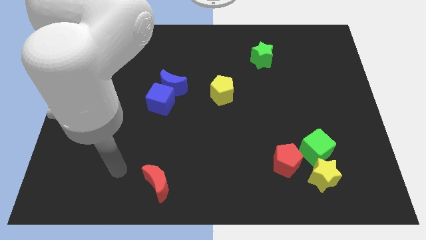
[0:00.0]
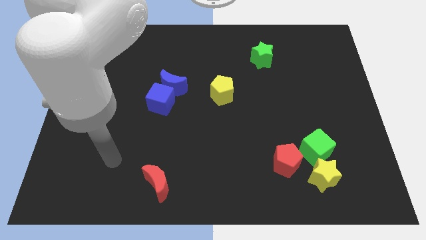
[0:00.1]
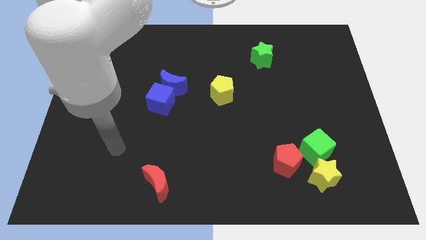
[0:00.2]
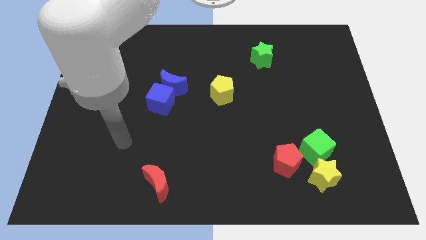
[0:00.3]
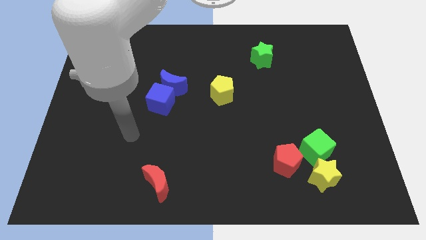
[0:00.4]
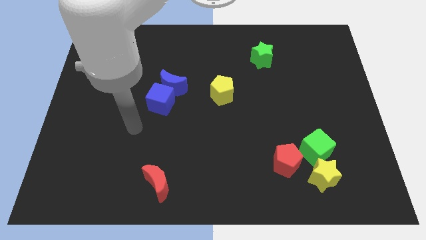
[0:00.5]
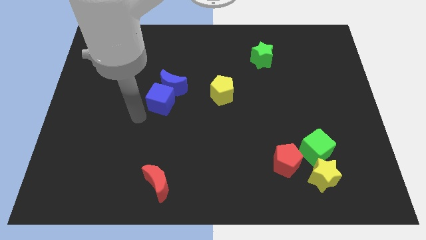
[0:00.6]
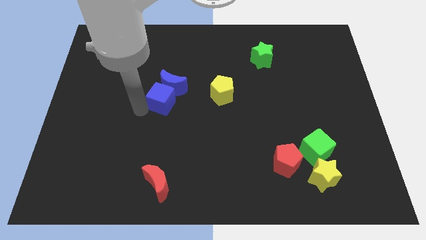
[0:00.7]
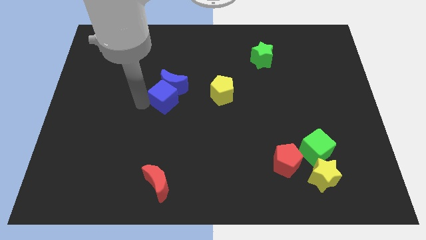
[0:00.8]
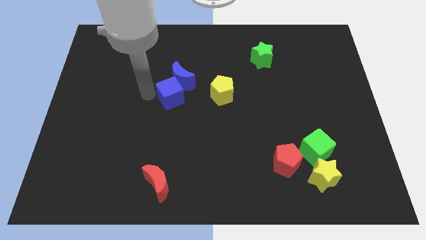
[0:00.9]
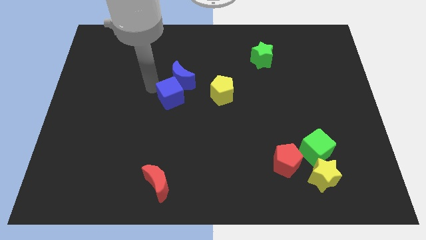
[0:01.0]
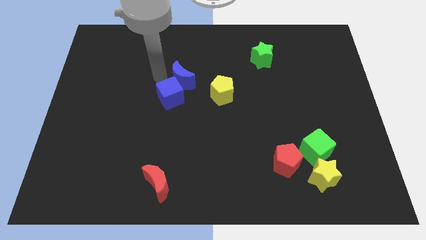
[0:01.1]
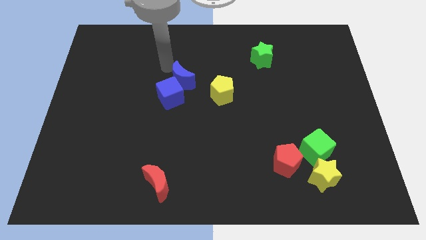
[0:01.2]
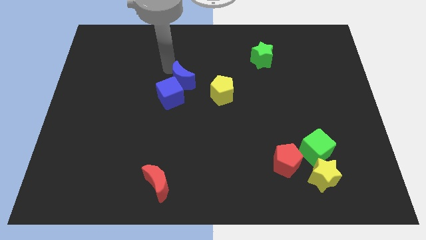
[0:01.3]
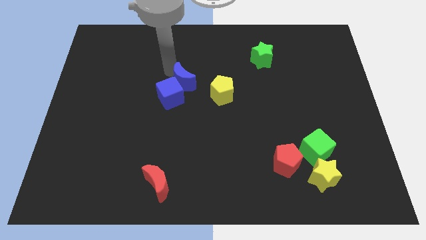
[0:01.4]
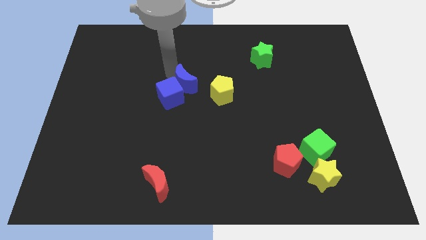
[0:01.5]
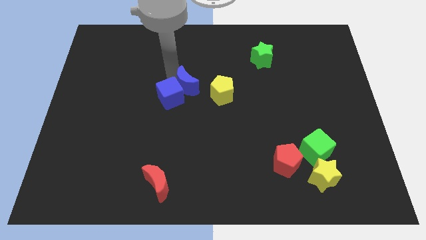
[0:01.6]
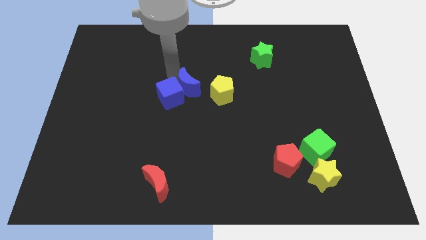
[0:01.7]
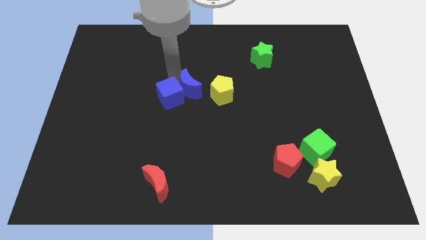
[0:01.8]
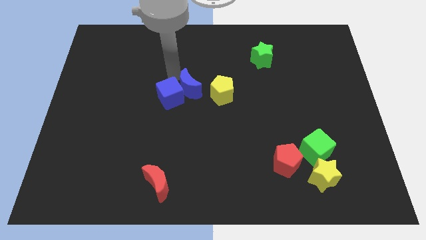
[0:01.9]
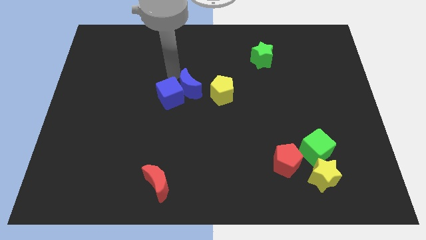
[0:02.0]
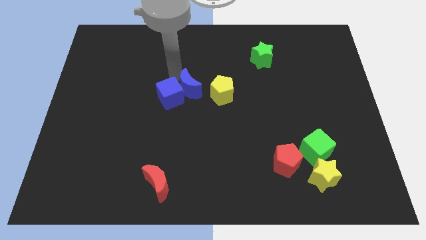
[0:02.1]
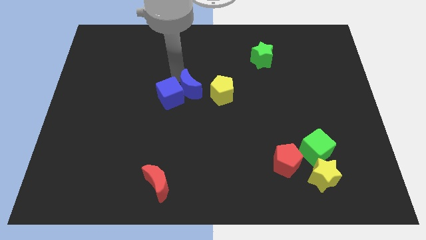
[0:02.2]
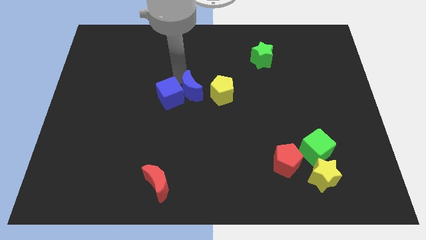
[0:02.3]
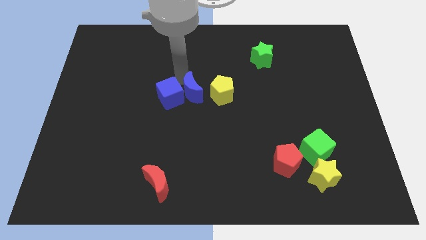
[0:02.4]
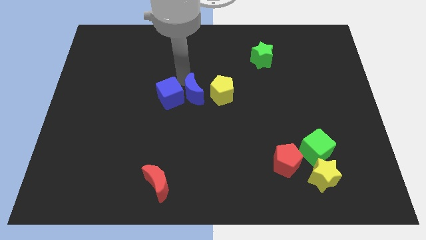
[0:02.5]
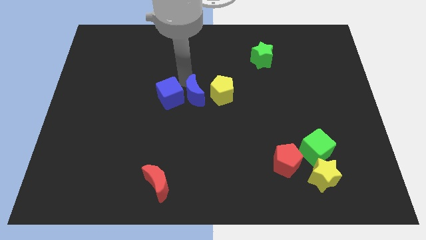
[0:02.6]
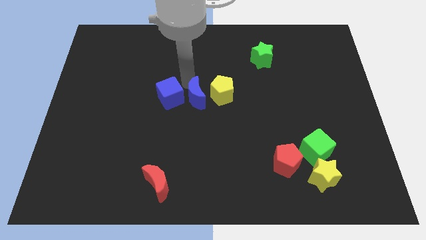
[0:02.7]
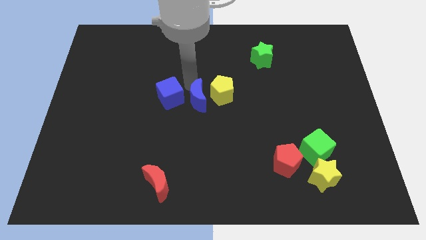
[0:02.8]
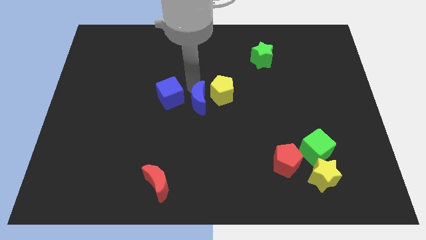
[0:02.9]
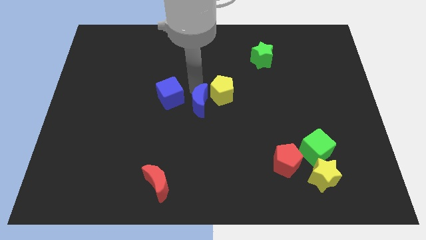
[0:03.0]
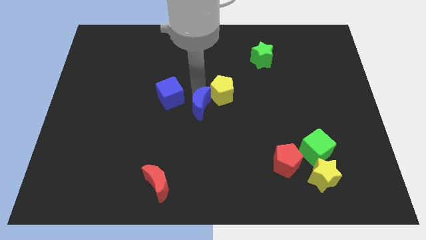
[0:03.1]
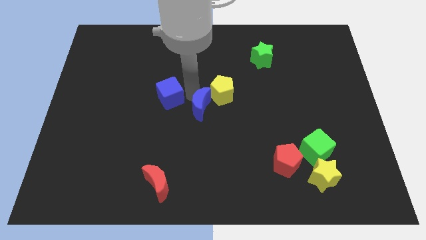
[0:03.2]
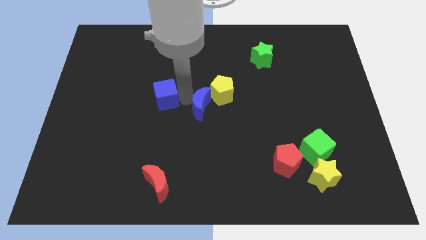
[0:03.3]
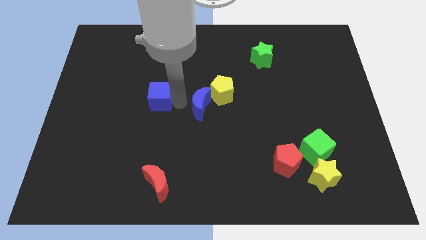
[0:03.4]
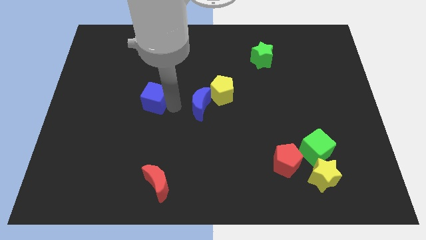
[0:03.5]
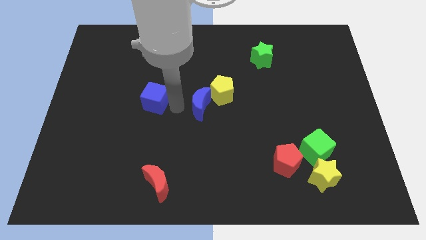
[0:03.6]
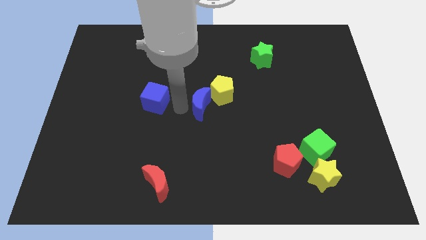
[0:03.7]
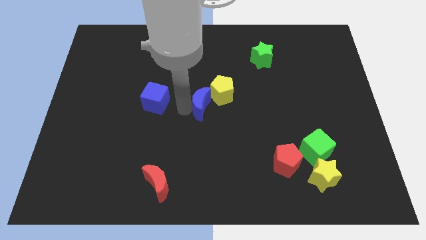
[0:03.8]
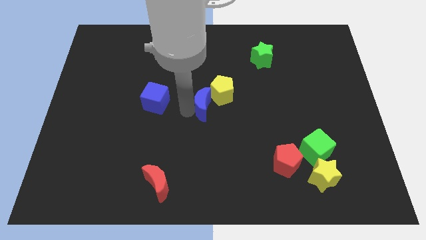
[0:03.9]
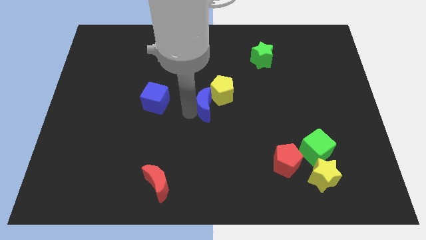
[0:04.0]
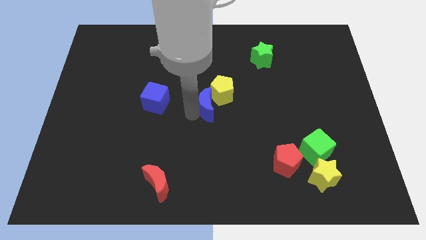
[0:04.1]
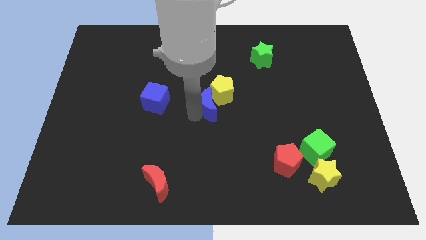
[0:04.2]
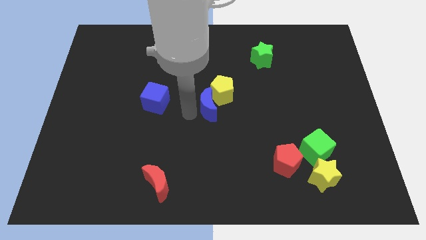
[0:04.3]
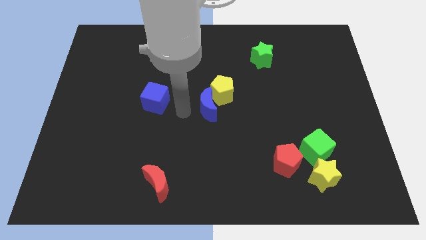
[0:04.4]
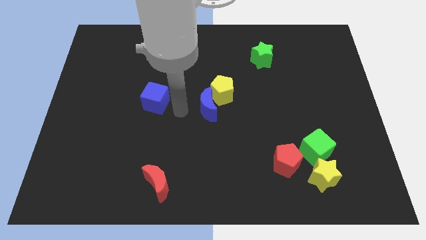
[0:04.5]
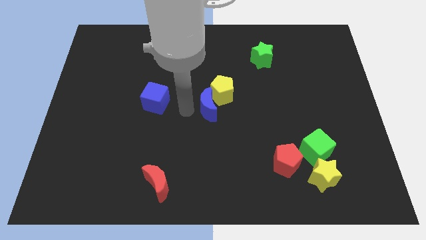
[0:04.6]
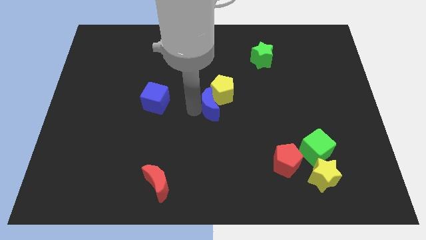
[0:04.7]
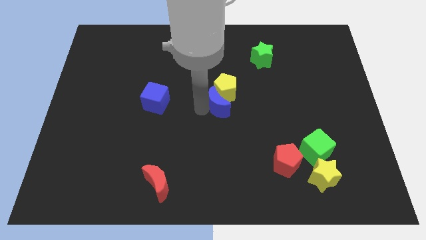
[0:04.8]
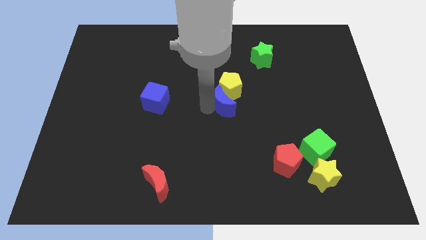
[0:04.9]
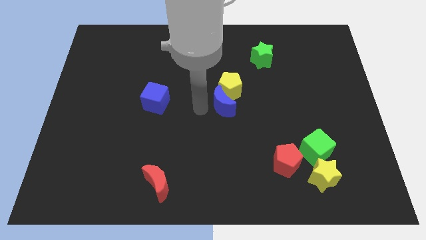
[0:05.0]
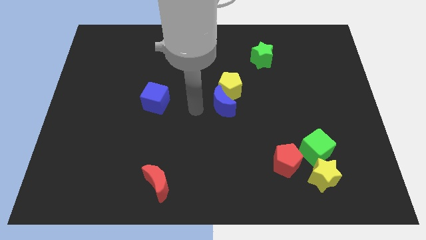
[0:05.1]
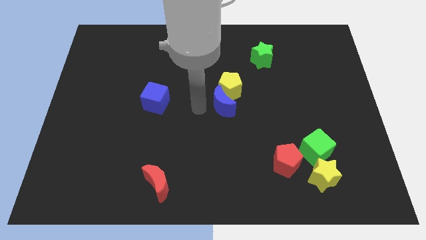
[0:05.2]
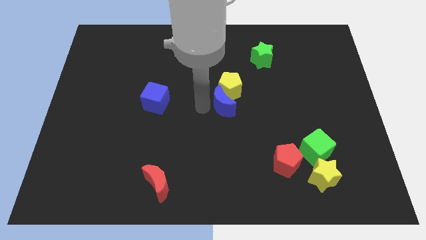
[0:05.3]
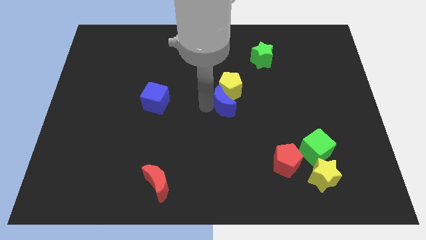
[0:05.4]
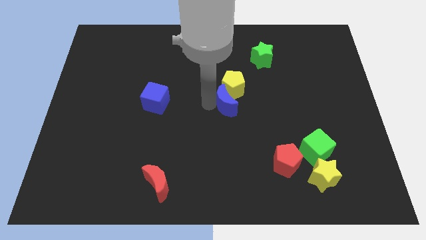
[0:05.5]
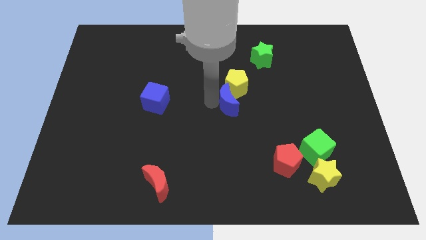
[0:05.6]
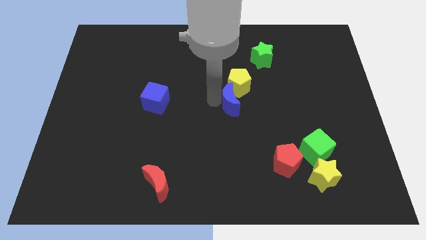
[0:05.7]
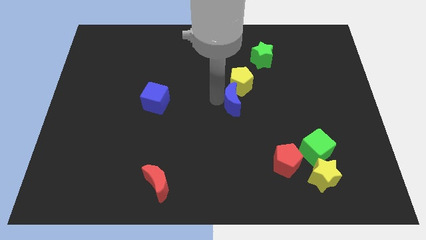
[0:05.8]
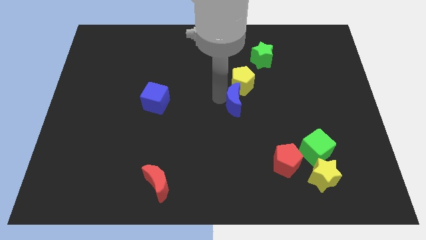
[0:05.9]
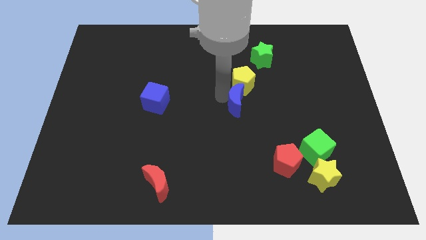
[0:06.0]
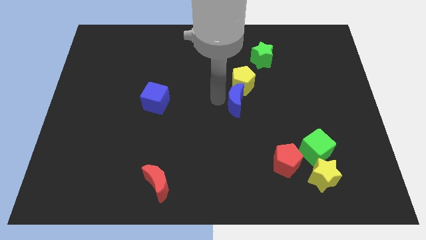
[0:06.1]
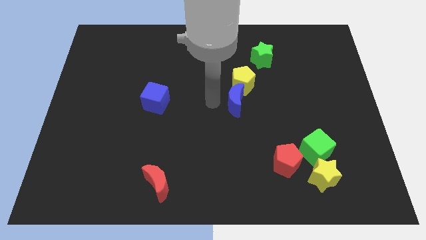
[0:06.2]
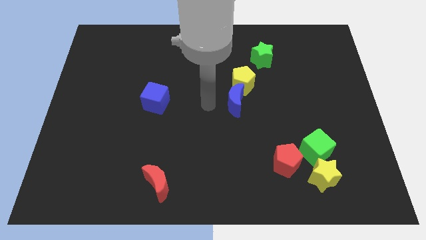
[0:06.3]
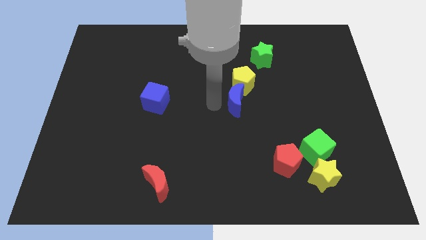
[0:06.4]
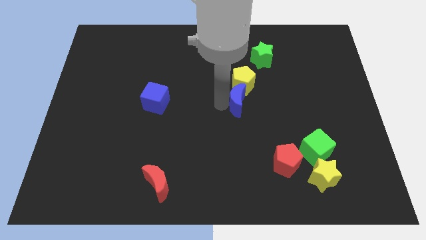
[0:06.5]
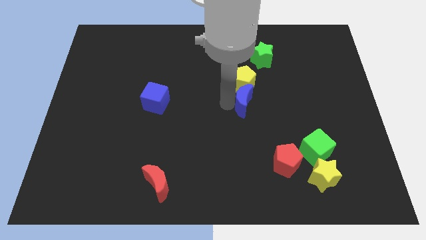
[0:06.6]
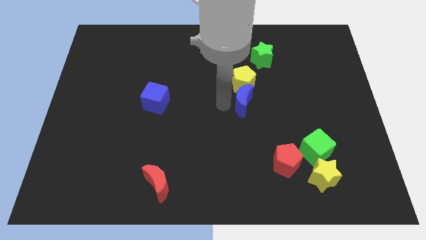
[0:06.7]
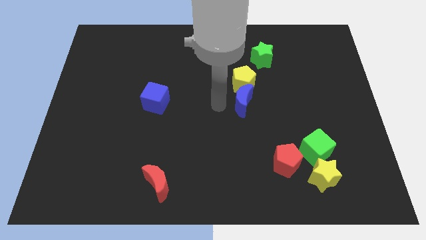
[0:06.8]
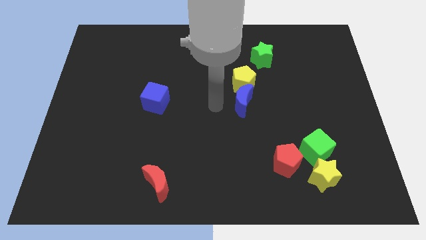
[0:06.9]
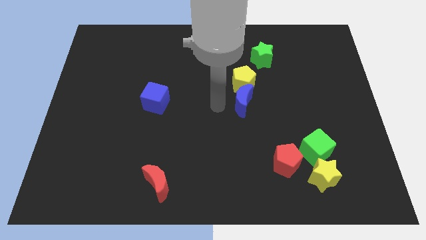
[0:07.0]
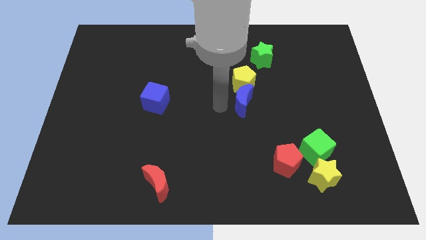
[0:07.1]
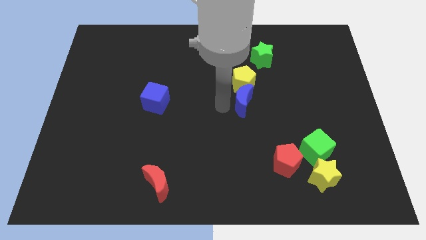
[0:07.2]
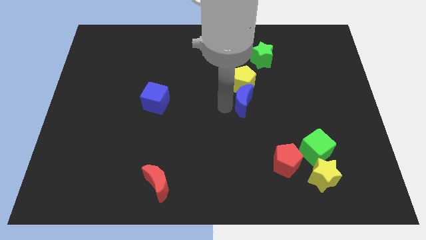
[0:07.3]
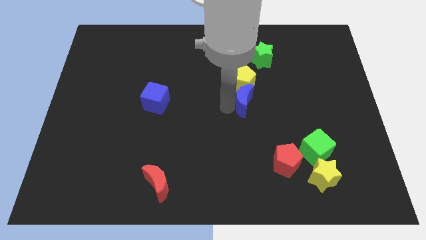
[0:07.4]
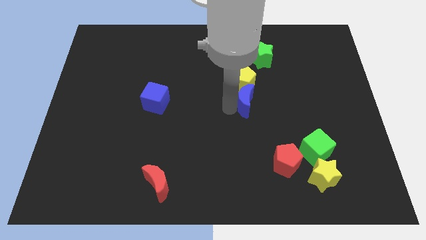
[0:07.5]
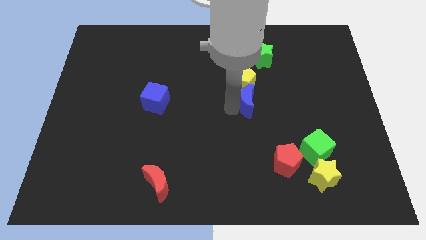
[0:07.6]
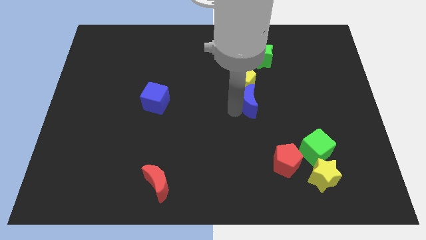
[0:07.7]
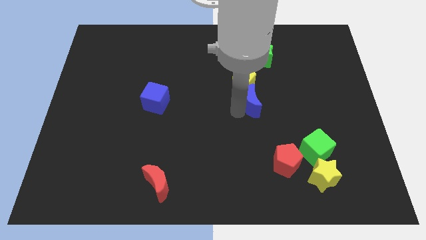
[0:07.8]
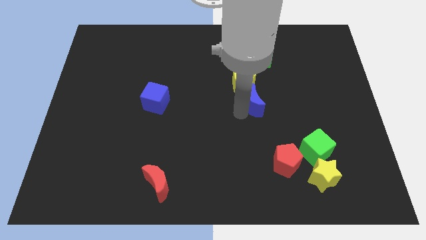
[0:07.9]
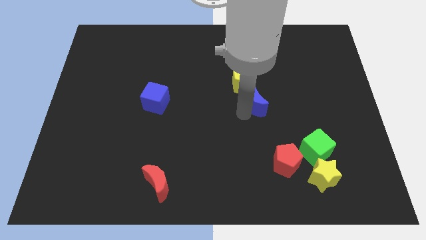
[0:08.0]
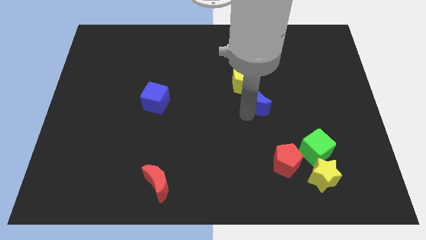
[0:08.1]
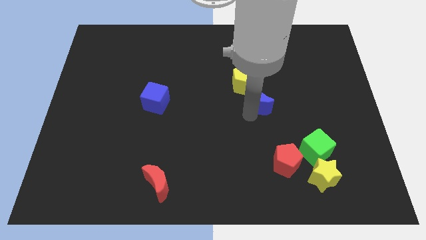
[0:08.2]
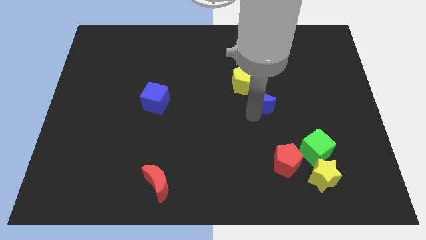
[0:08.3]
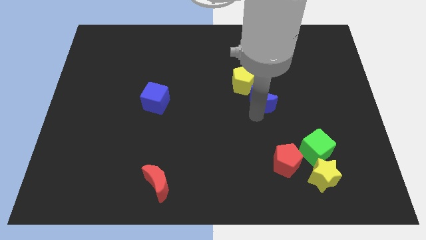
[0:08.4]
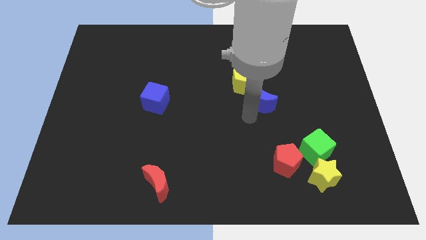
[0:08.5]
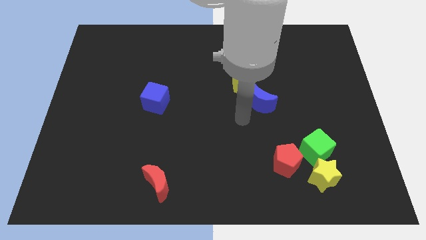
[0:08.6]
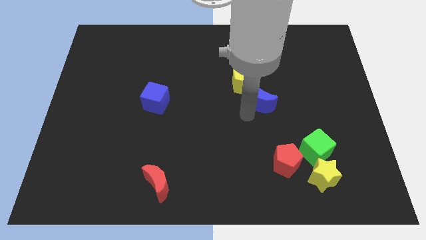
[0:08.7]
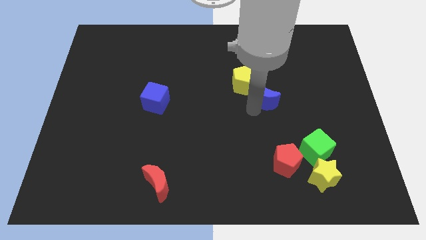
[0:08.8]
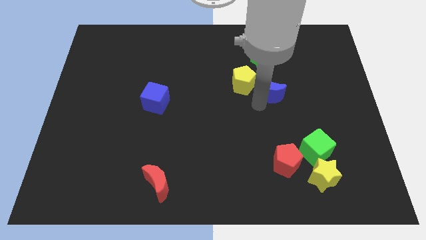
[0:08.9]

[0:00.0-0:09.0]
slide the blue moon to the right of the yellow pentagon
